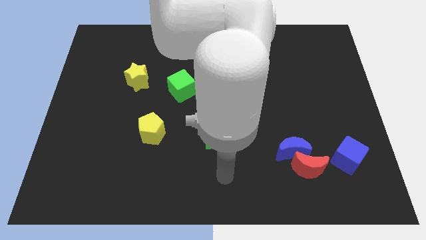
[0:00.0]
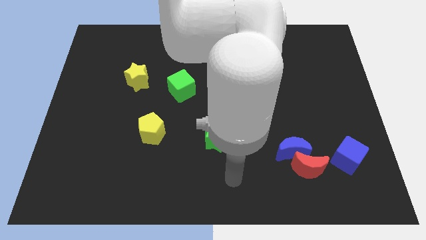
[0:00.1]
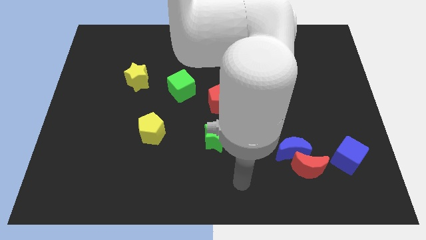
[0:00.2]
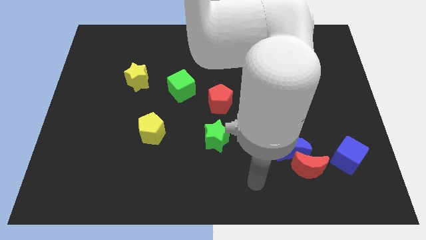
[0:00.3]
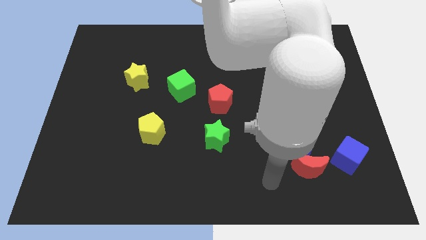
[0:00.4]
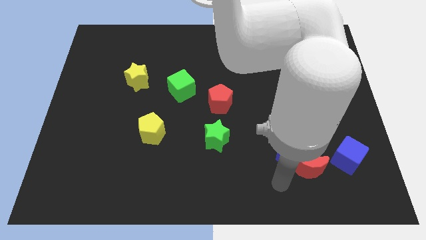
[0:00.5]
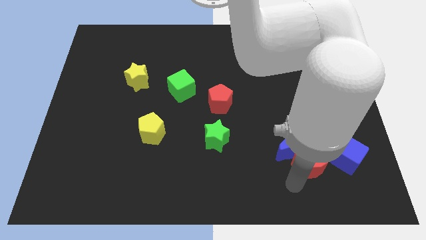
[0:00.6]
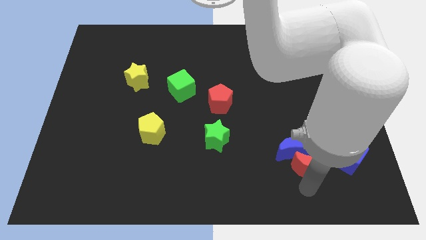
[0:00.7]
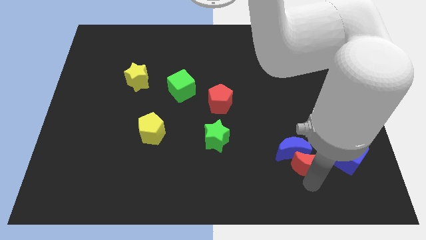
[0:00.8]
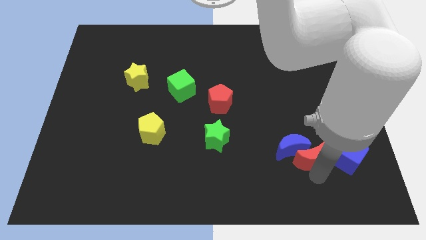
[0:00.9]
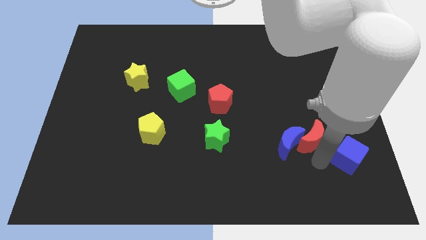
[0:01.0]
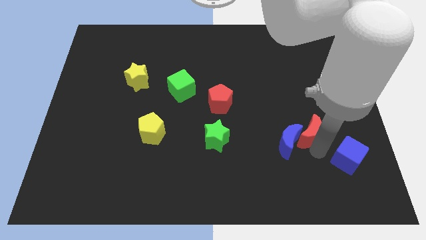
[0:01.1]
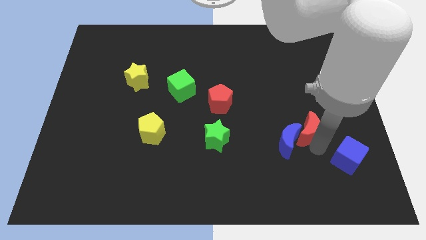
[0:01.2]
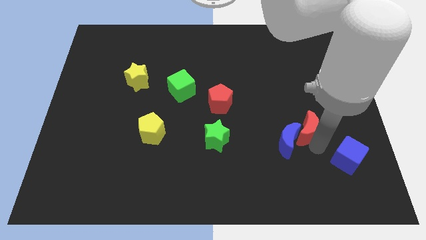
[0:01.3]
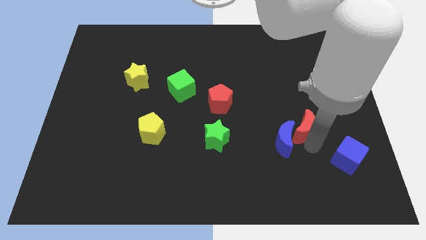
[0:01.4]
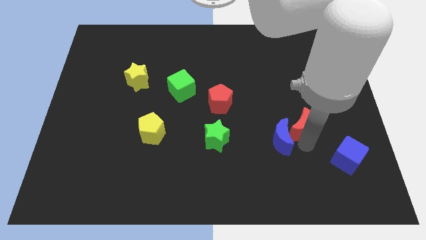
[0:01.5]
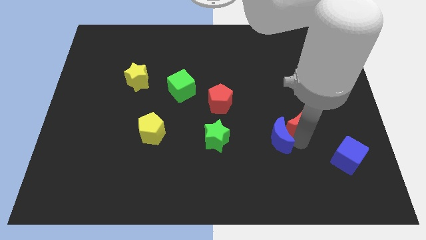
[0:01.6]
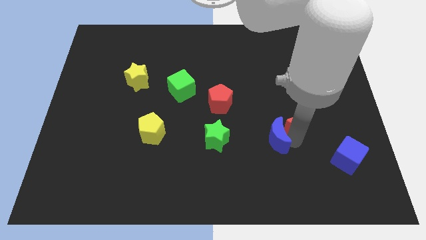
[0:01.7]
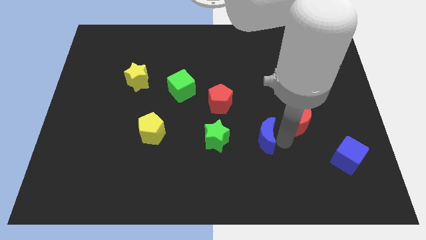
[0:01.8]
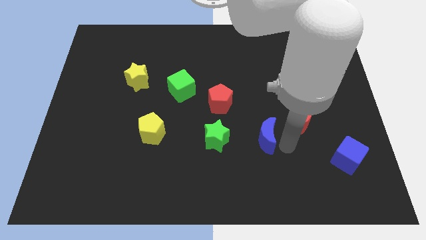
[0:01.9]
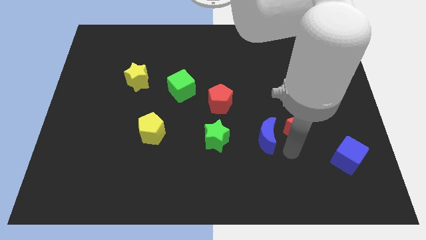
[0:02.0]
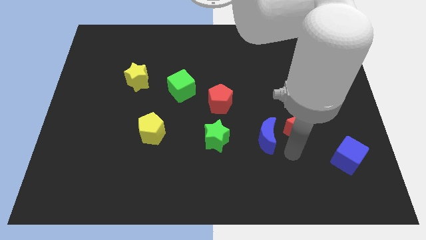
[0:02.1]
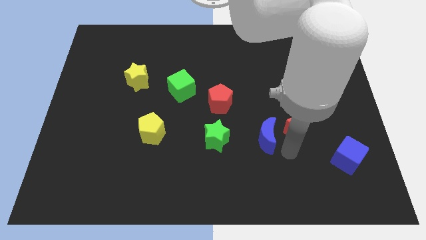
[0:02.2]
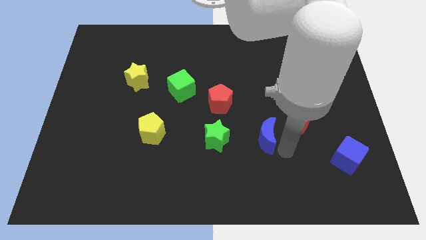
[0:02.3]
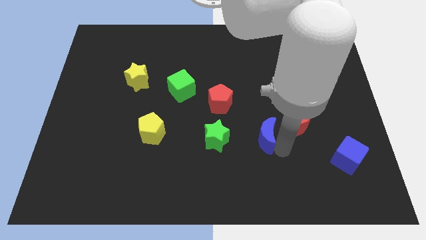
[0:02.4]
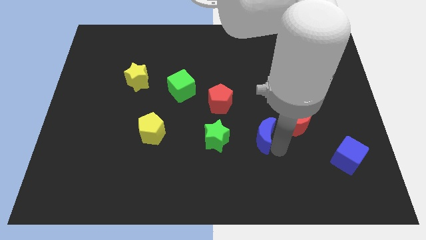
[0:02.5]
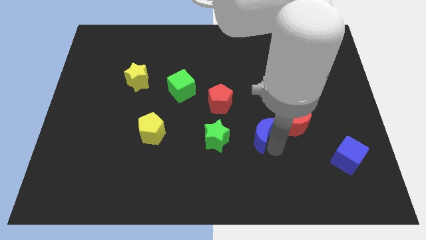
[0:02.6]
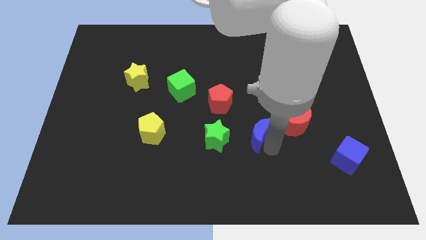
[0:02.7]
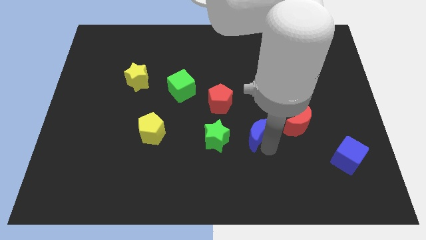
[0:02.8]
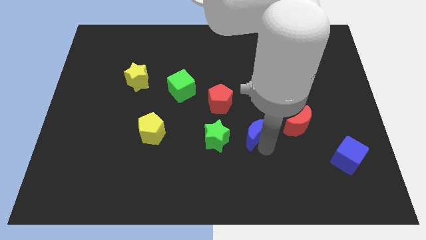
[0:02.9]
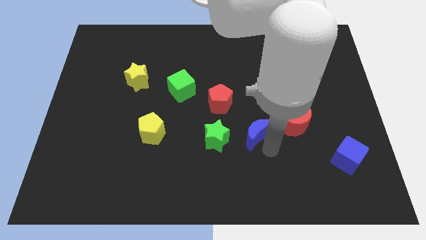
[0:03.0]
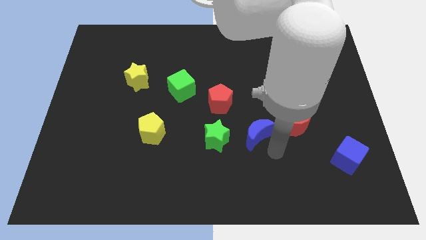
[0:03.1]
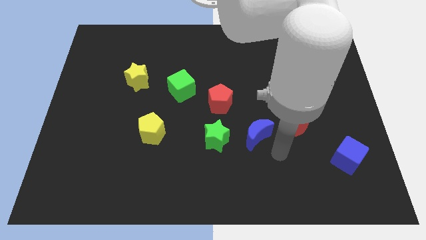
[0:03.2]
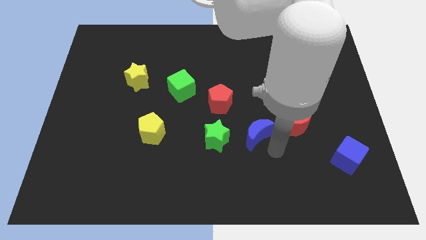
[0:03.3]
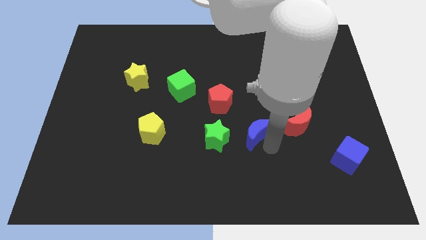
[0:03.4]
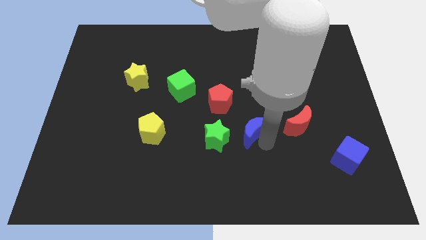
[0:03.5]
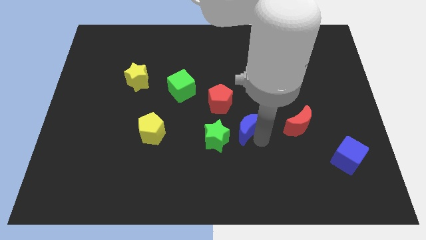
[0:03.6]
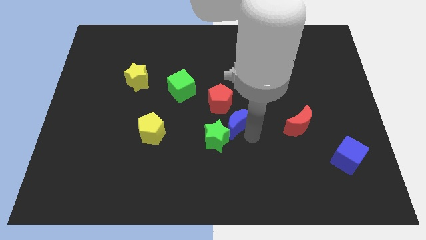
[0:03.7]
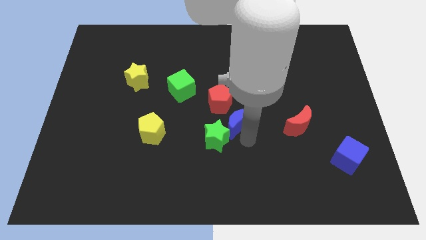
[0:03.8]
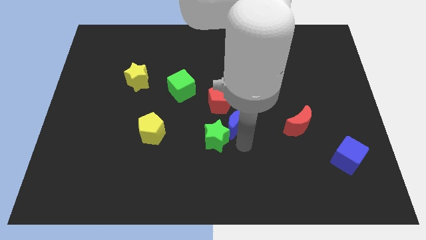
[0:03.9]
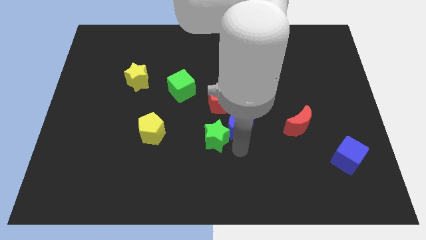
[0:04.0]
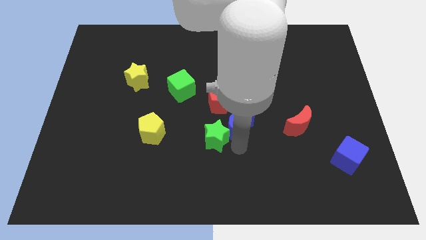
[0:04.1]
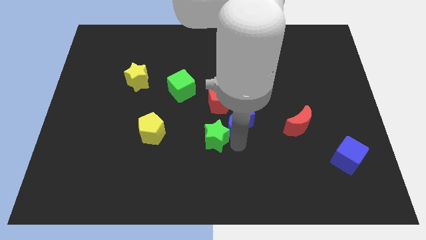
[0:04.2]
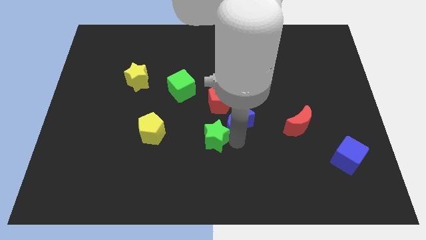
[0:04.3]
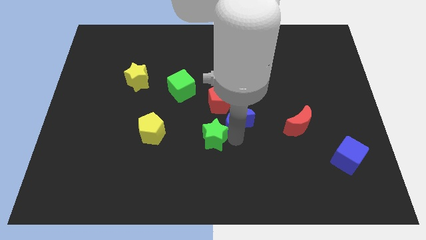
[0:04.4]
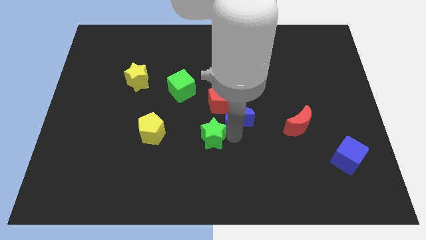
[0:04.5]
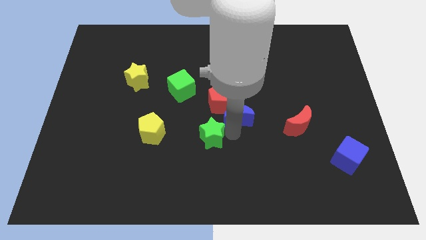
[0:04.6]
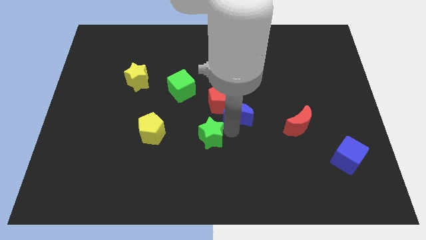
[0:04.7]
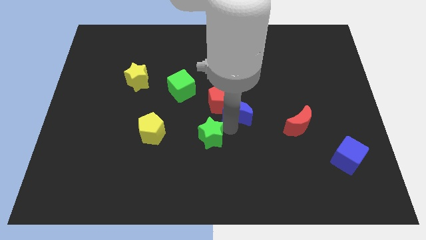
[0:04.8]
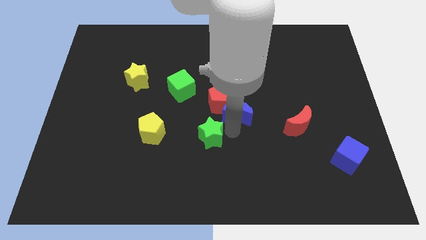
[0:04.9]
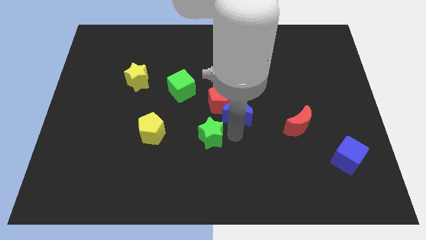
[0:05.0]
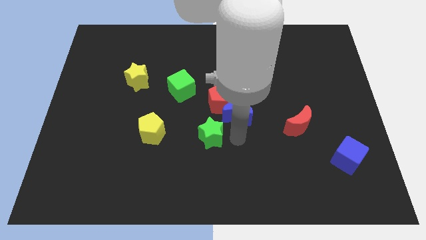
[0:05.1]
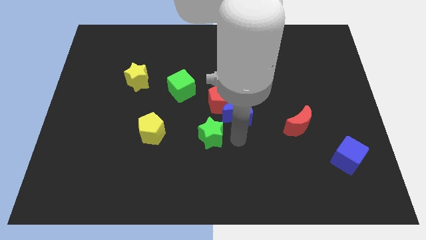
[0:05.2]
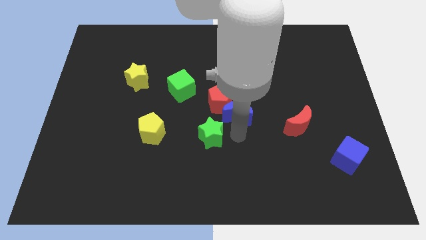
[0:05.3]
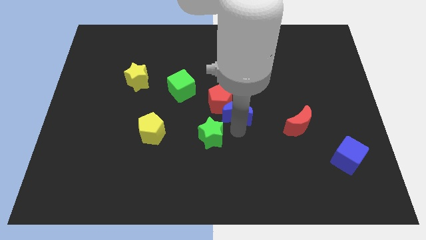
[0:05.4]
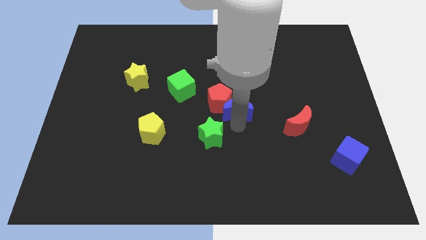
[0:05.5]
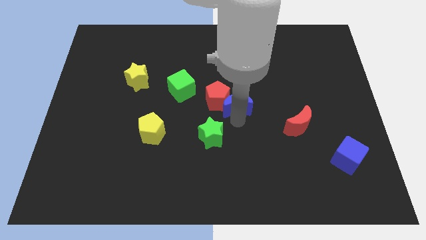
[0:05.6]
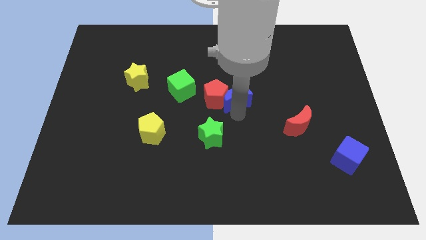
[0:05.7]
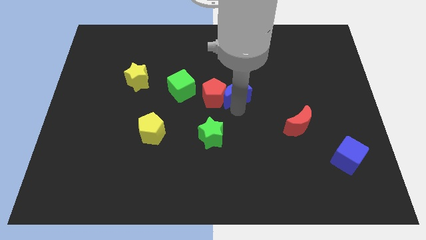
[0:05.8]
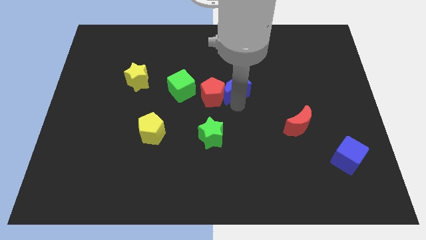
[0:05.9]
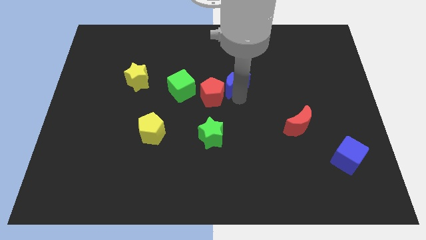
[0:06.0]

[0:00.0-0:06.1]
move the blue moon upwards and then to the left

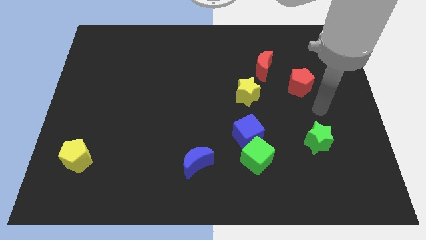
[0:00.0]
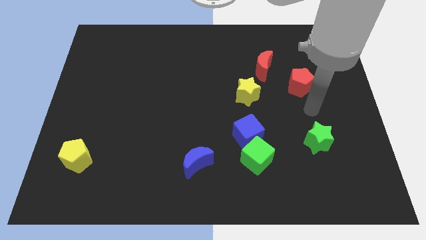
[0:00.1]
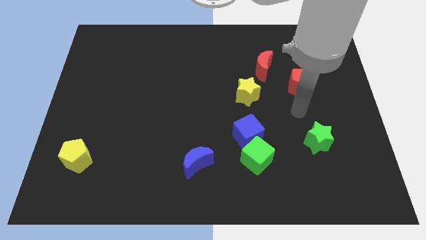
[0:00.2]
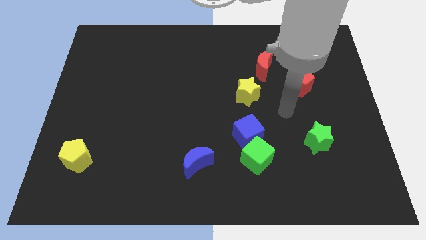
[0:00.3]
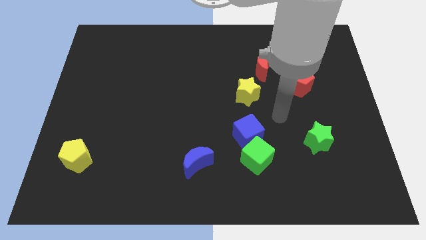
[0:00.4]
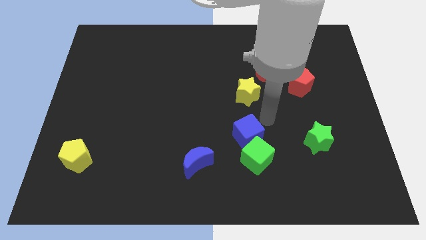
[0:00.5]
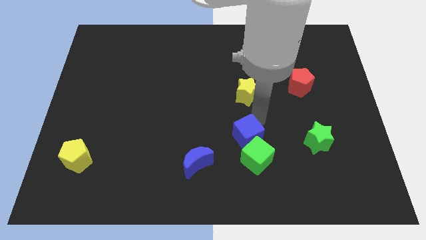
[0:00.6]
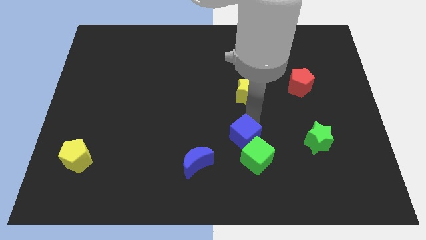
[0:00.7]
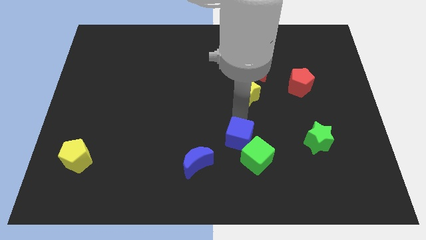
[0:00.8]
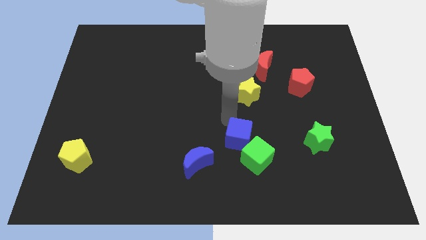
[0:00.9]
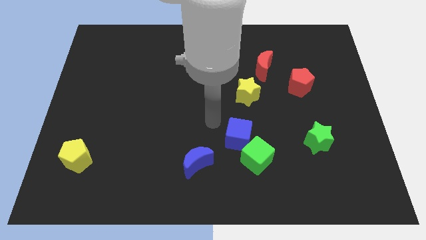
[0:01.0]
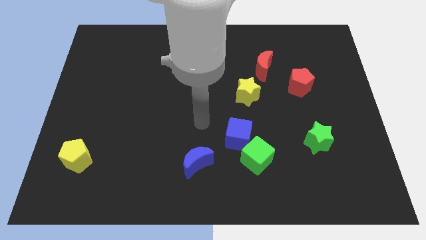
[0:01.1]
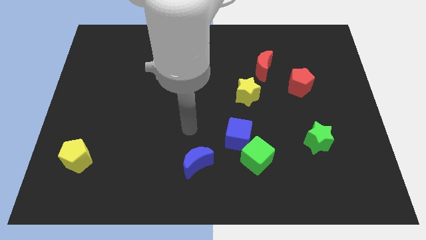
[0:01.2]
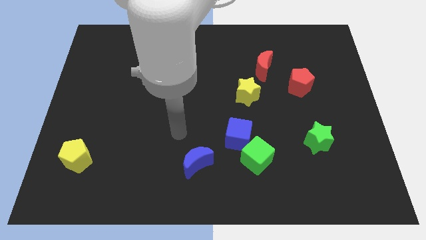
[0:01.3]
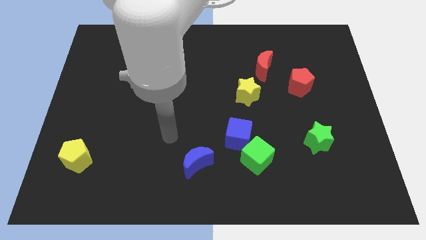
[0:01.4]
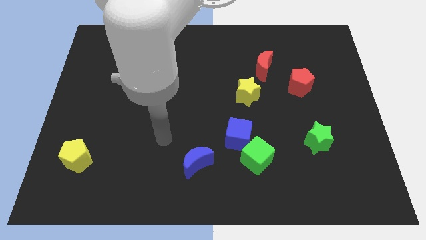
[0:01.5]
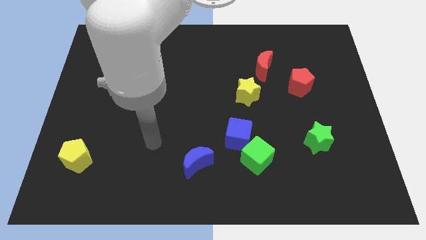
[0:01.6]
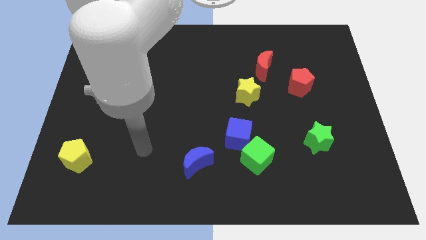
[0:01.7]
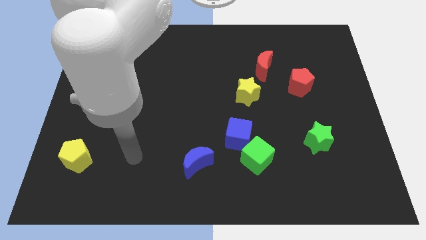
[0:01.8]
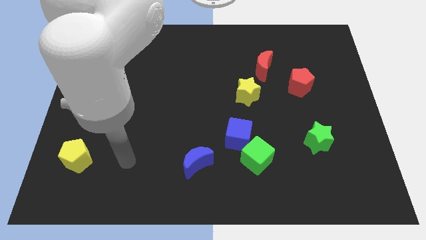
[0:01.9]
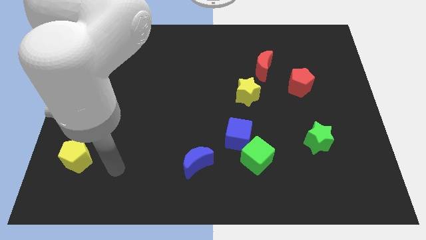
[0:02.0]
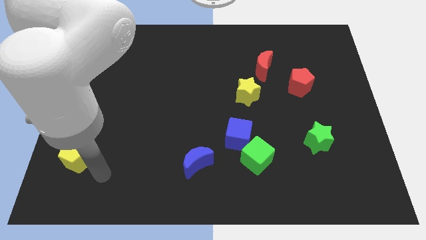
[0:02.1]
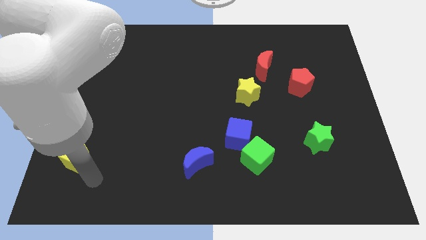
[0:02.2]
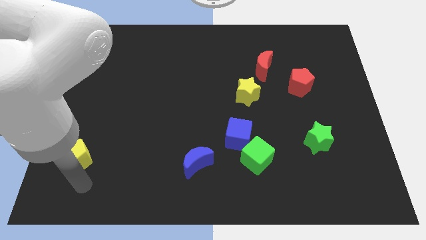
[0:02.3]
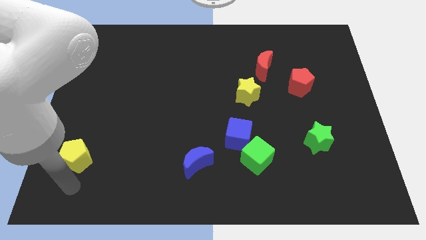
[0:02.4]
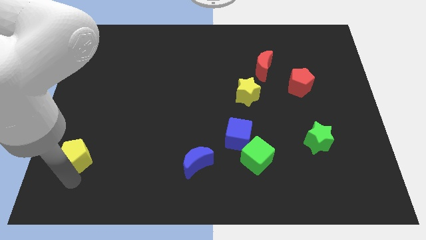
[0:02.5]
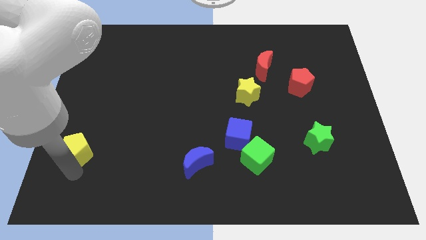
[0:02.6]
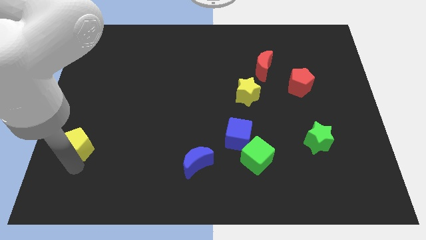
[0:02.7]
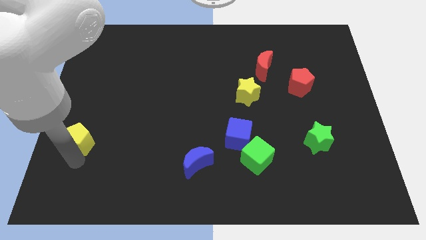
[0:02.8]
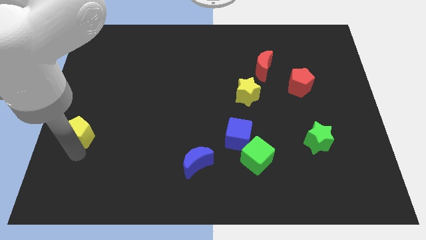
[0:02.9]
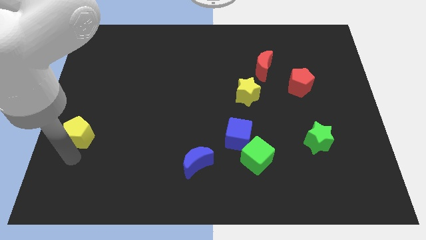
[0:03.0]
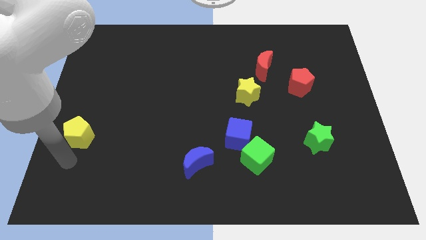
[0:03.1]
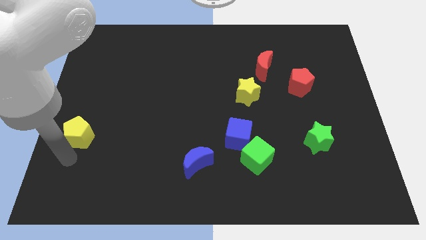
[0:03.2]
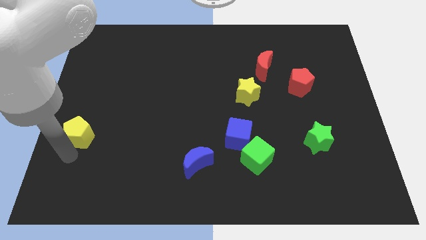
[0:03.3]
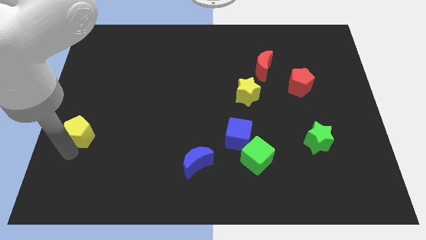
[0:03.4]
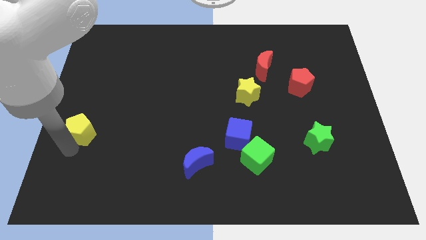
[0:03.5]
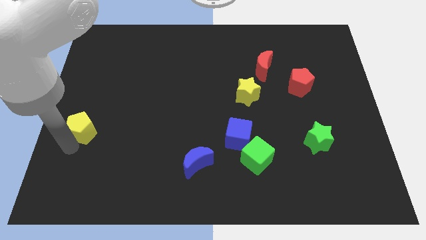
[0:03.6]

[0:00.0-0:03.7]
push the yellow pentagon somewhat up
